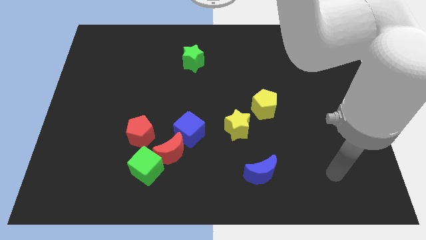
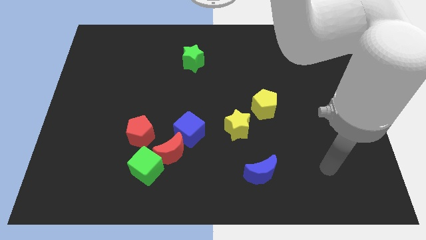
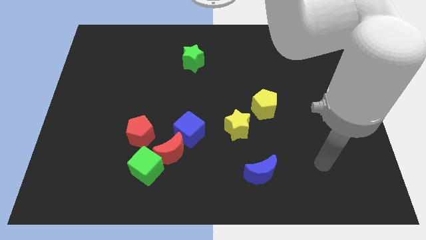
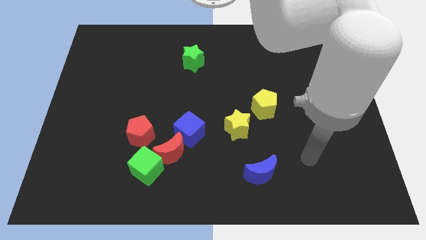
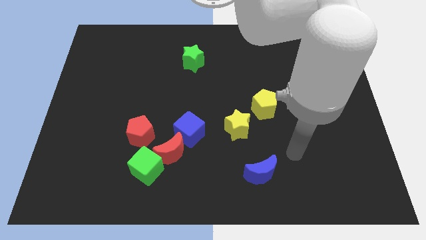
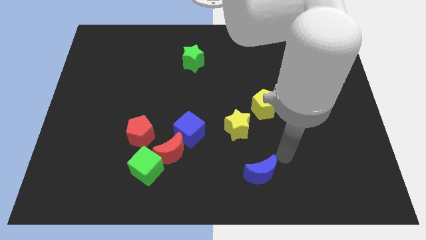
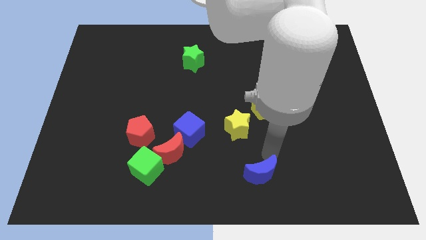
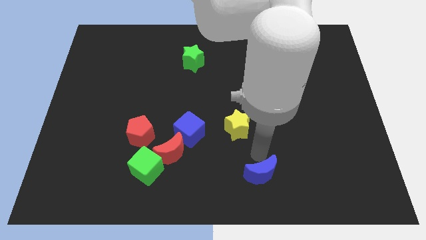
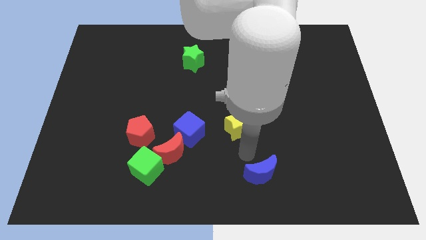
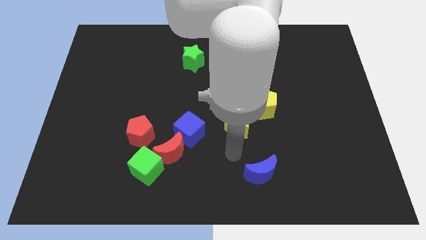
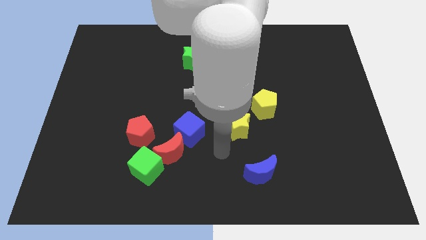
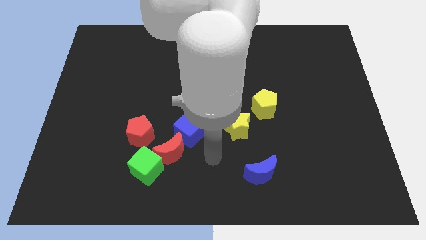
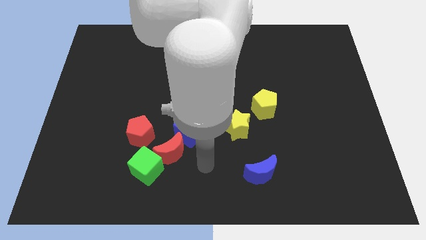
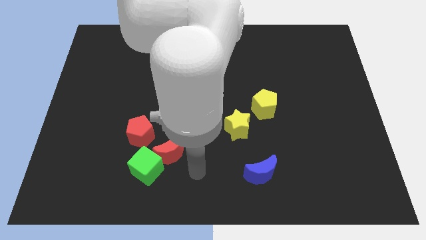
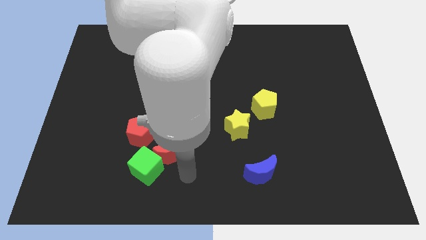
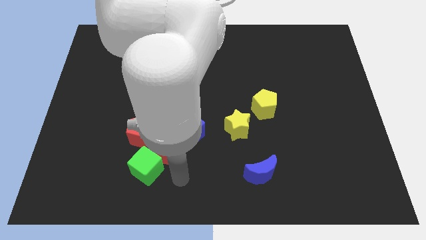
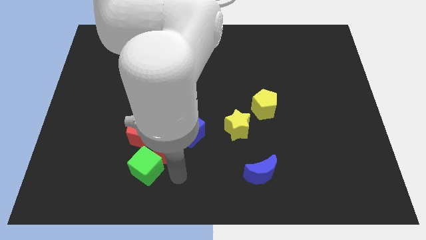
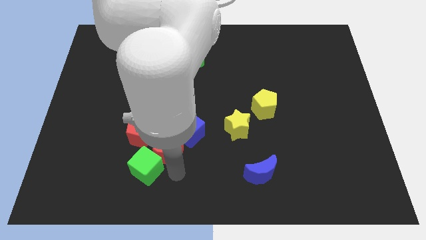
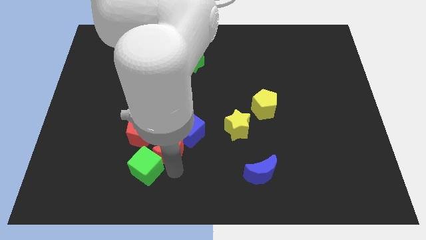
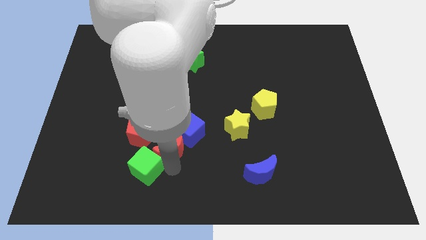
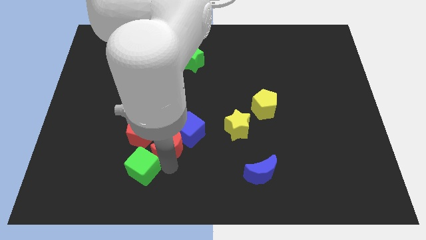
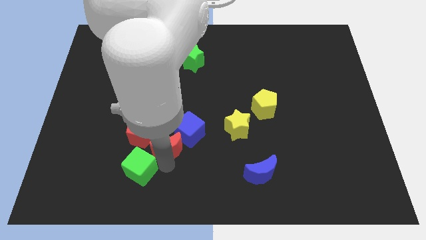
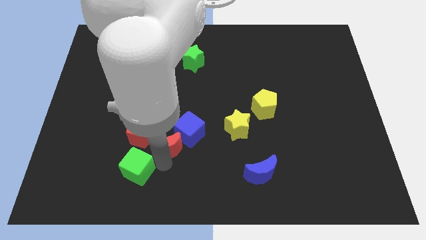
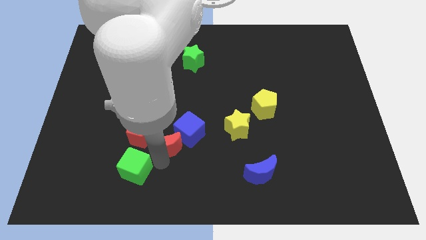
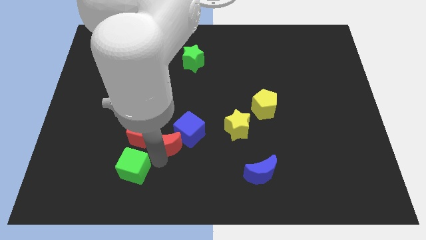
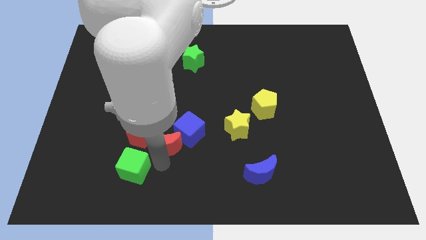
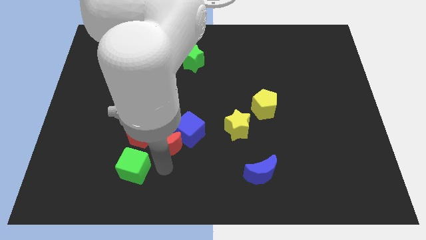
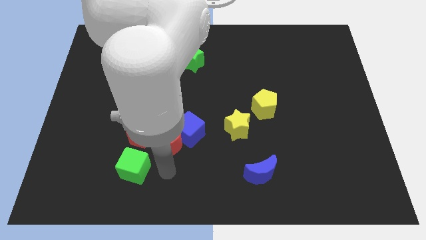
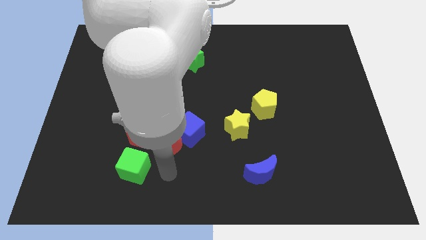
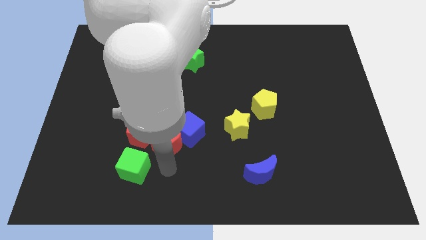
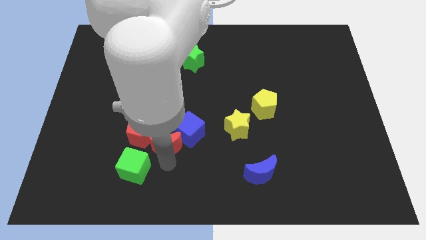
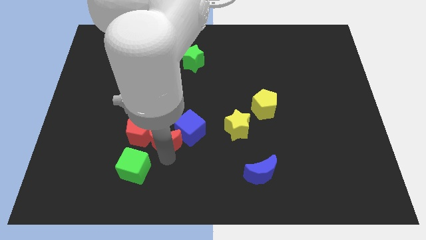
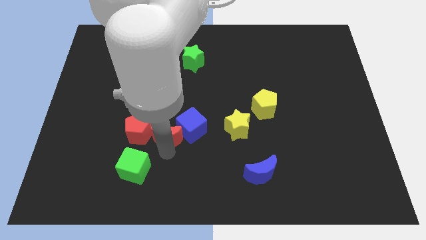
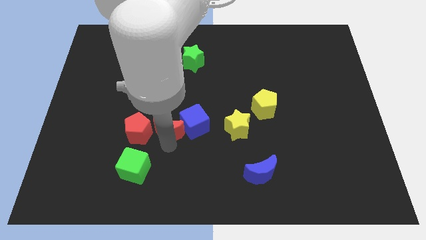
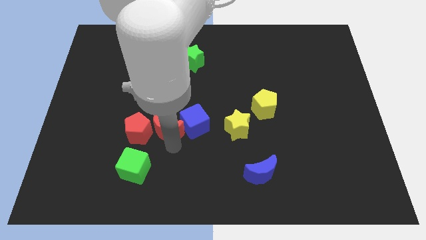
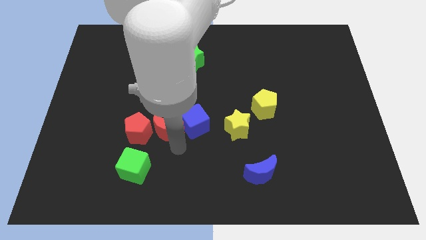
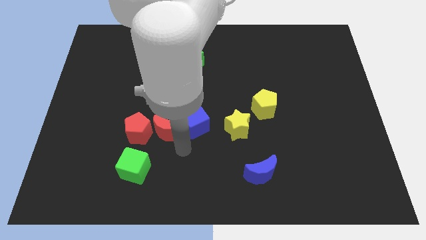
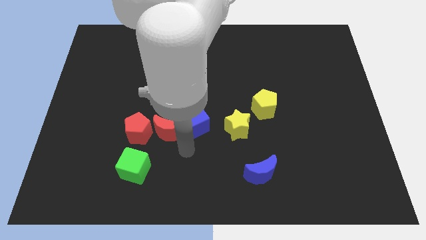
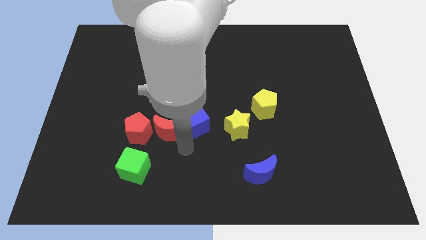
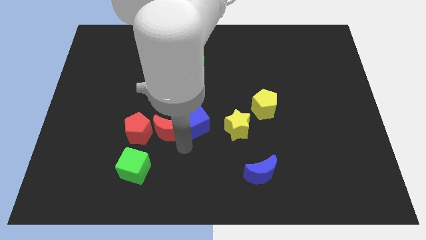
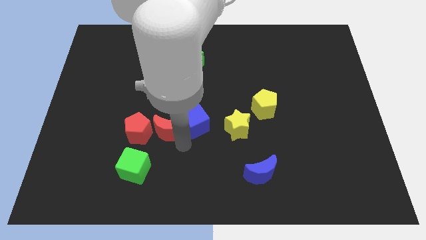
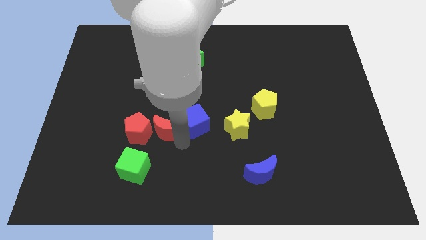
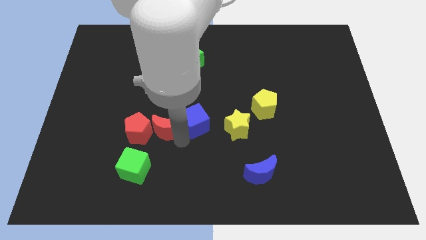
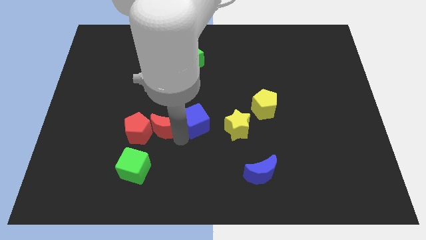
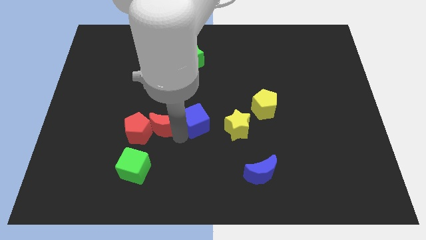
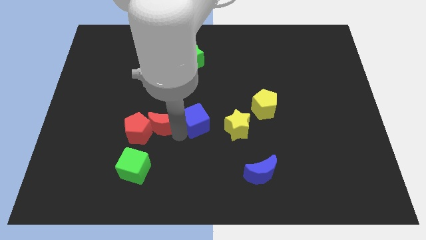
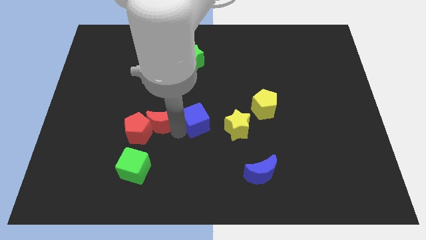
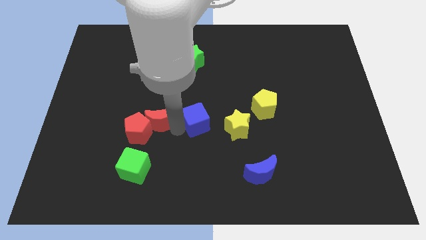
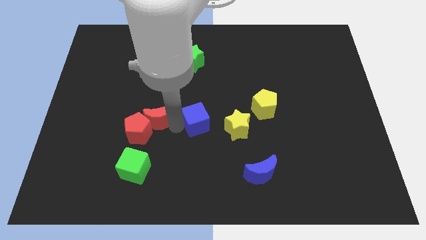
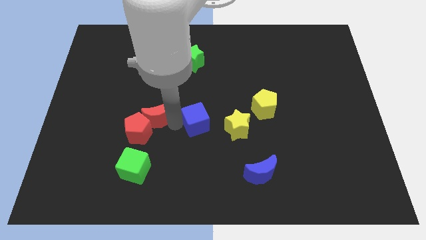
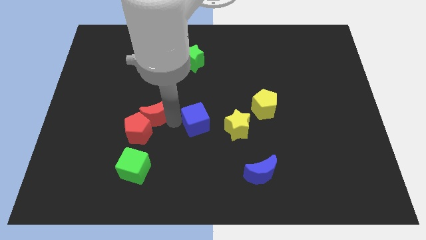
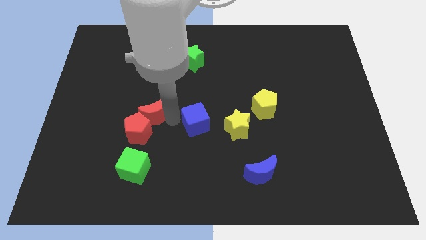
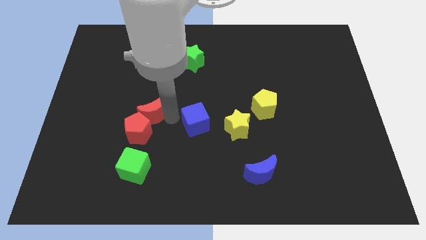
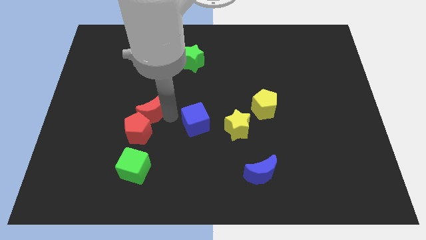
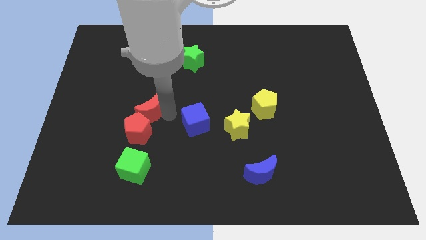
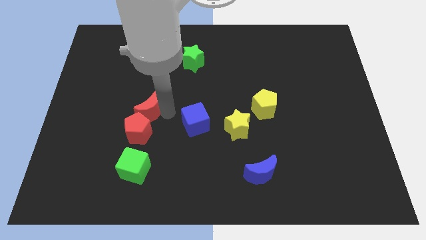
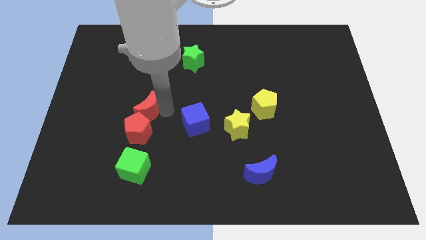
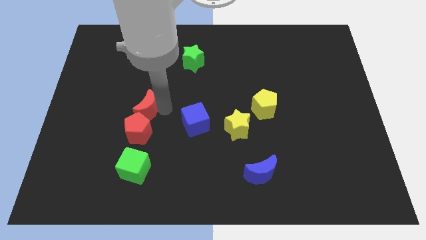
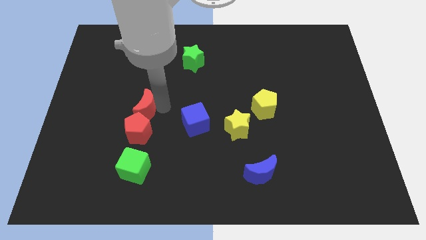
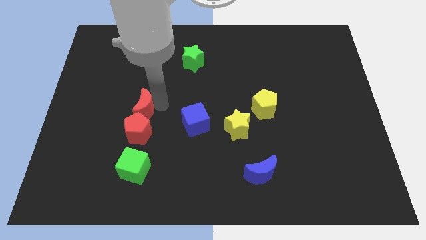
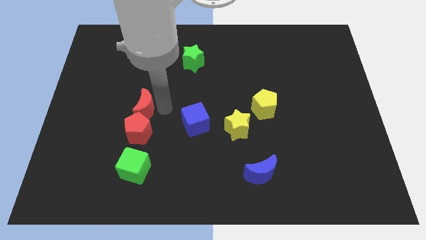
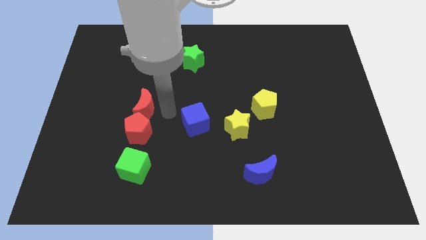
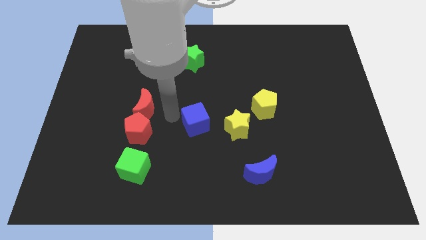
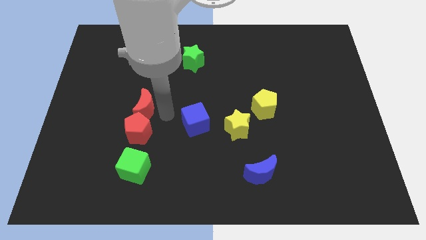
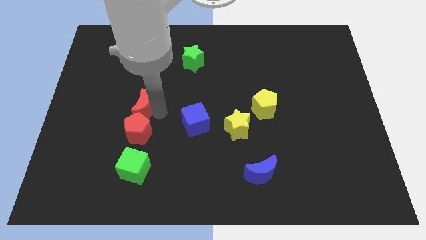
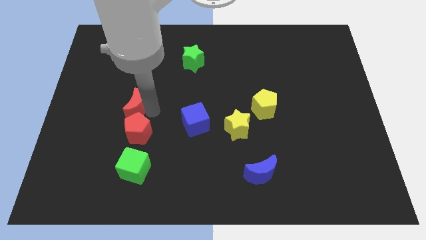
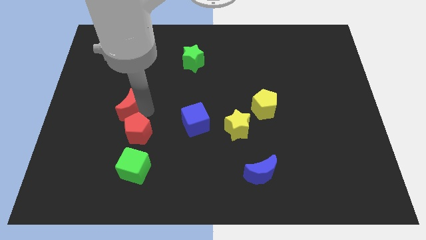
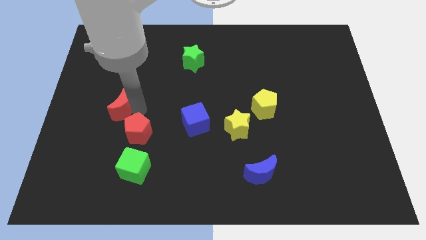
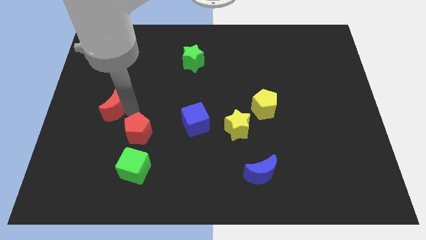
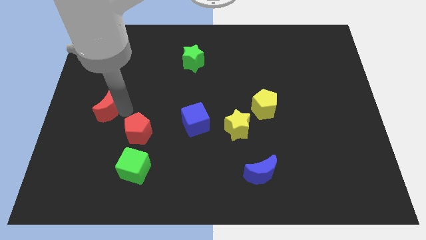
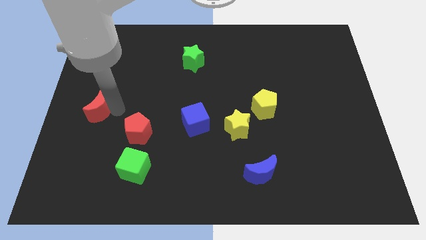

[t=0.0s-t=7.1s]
put the red moon to the left side
